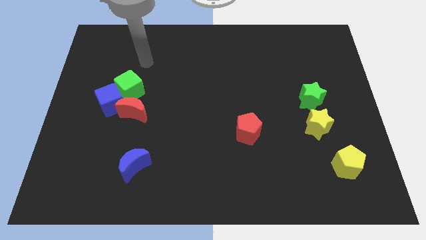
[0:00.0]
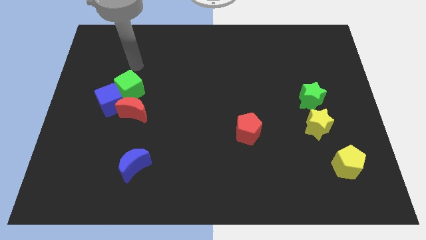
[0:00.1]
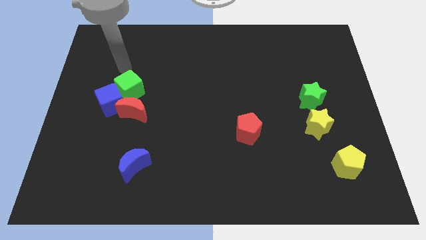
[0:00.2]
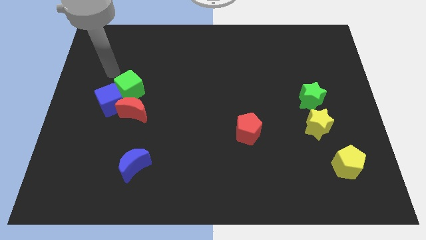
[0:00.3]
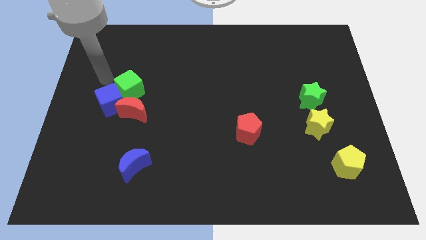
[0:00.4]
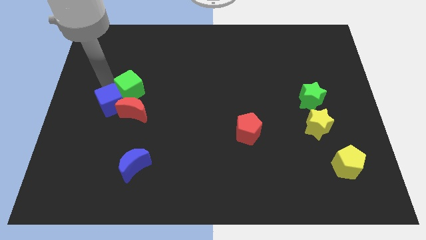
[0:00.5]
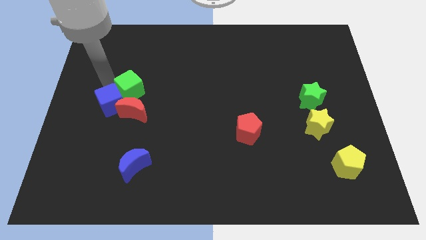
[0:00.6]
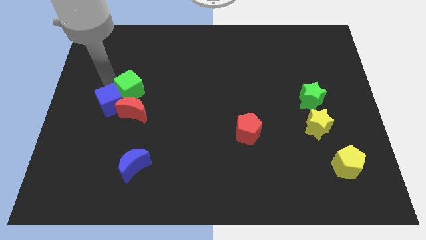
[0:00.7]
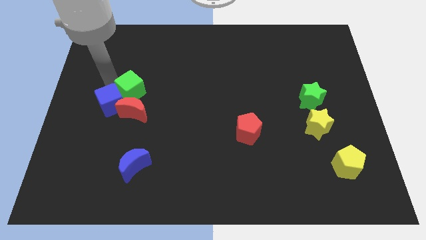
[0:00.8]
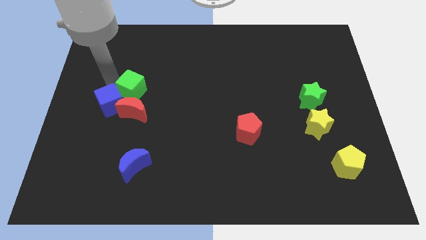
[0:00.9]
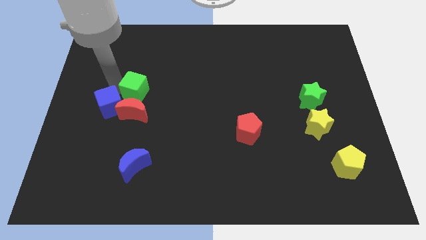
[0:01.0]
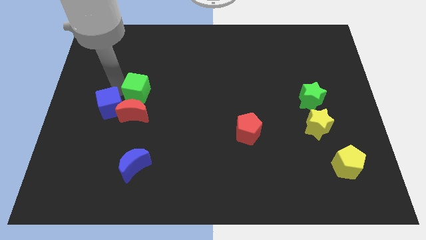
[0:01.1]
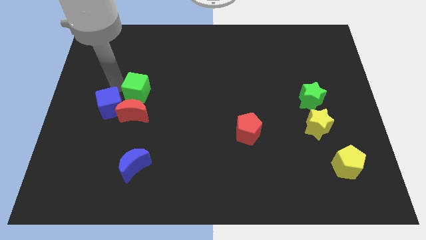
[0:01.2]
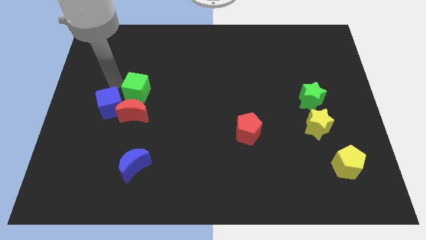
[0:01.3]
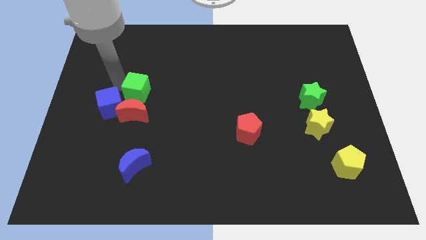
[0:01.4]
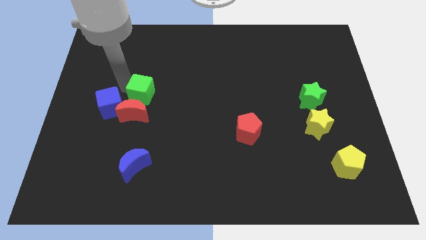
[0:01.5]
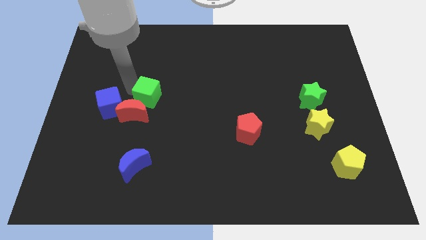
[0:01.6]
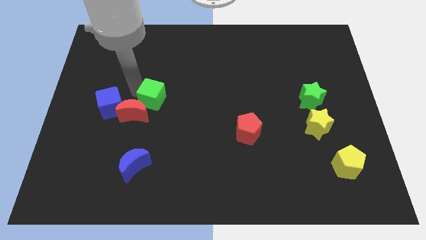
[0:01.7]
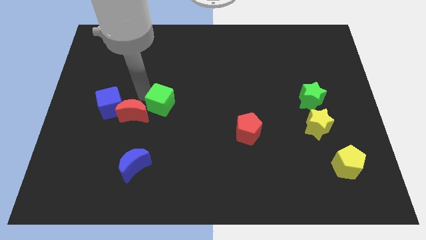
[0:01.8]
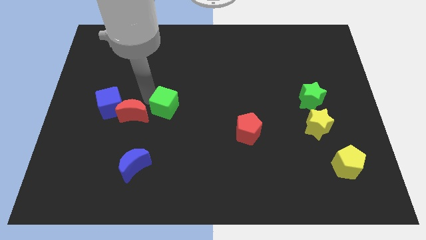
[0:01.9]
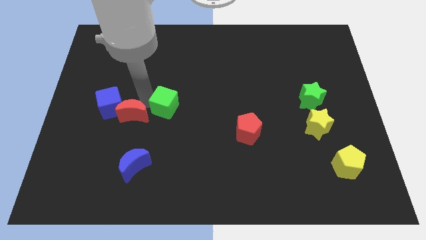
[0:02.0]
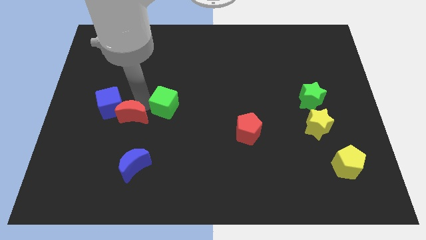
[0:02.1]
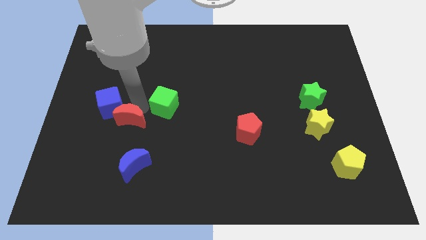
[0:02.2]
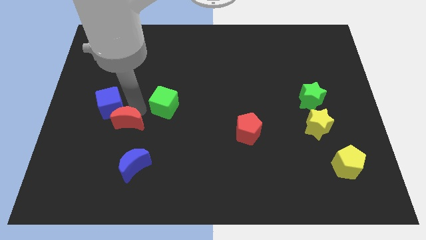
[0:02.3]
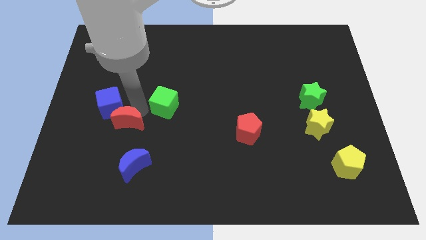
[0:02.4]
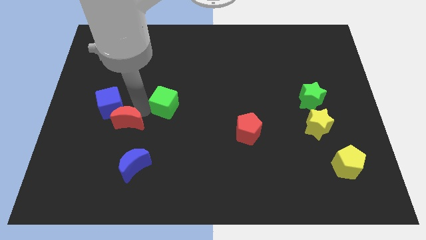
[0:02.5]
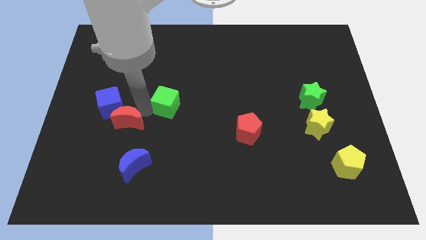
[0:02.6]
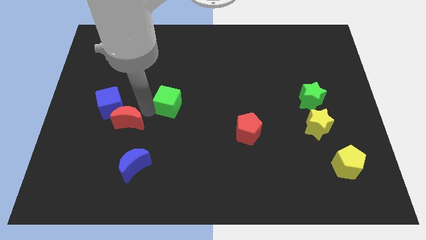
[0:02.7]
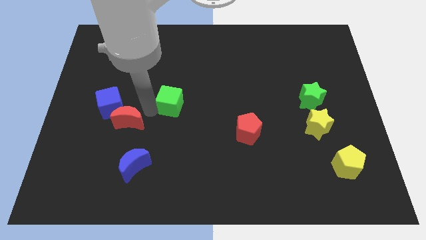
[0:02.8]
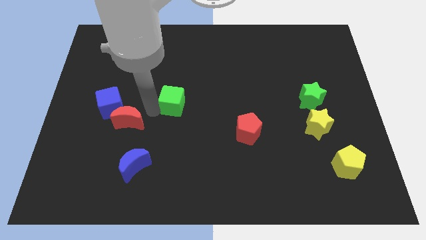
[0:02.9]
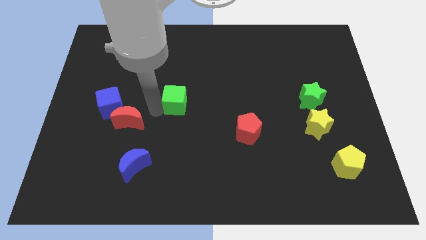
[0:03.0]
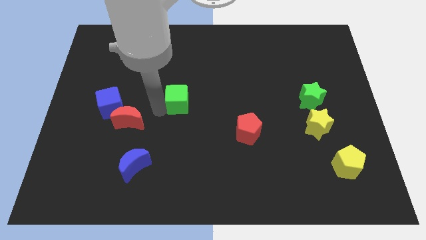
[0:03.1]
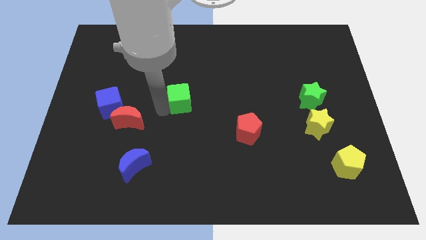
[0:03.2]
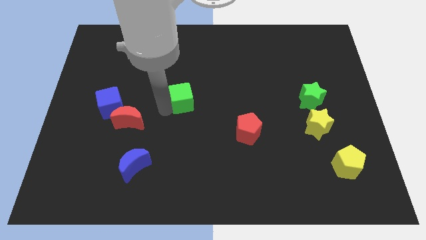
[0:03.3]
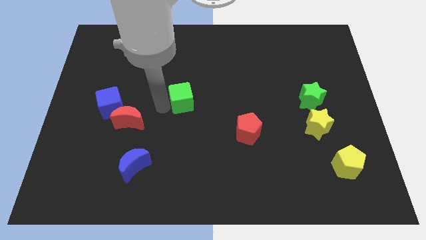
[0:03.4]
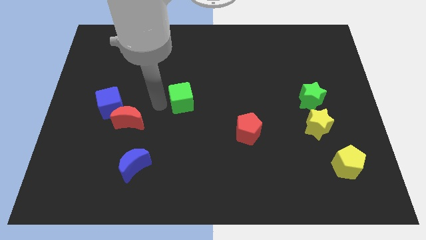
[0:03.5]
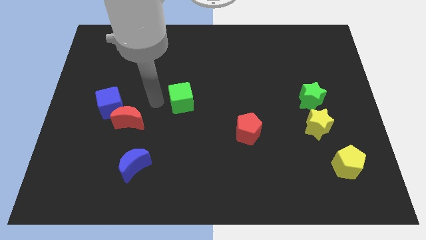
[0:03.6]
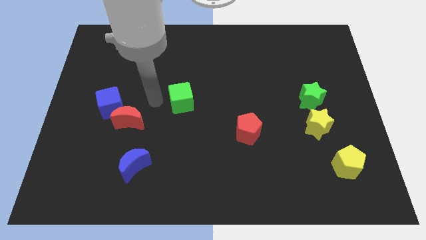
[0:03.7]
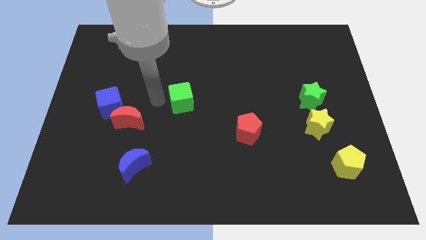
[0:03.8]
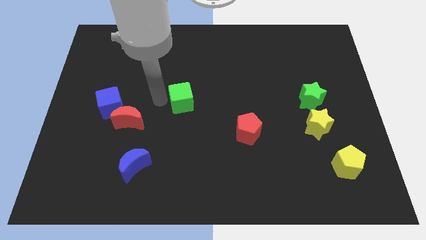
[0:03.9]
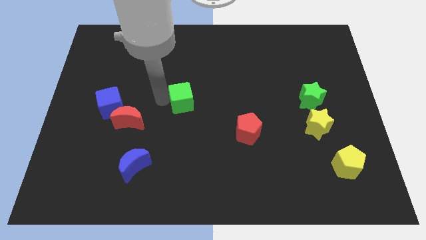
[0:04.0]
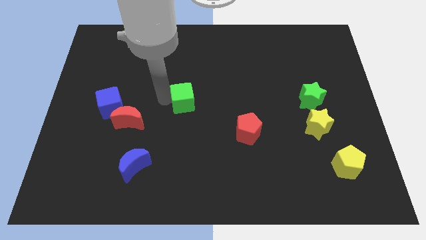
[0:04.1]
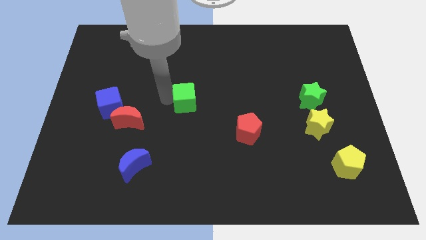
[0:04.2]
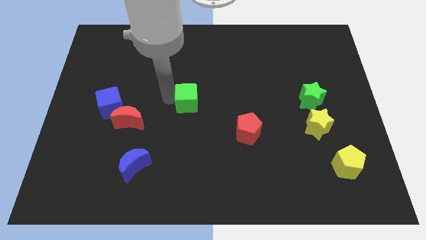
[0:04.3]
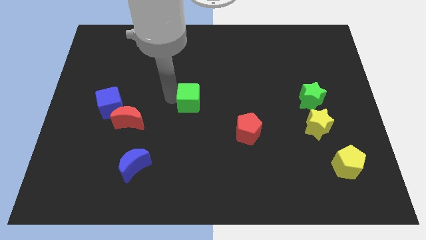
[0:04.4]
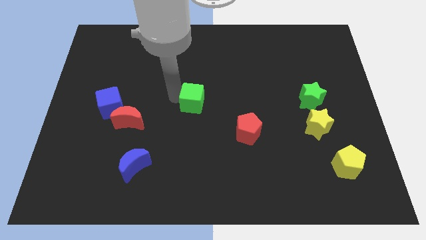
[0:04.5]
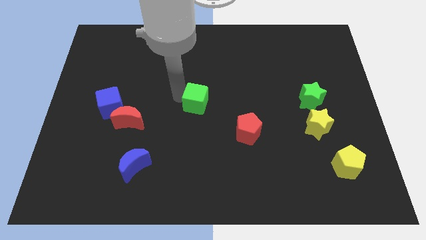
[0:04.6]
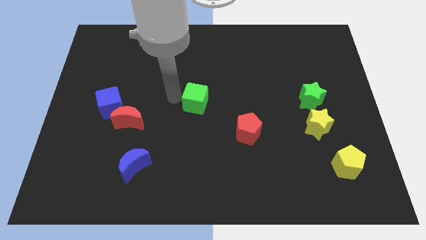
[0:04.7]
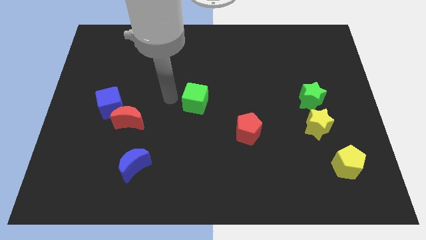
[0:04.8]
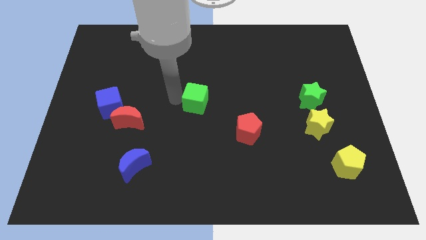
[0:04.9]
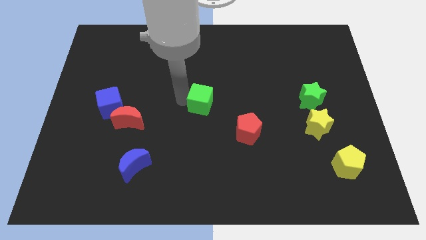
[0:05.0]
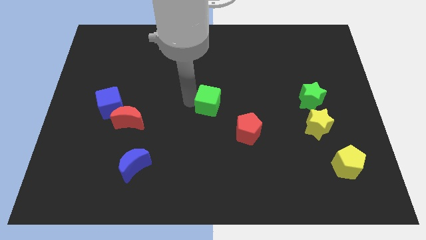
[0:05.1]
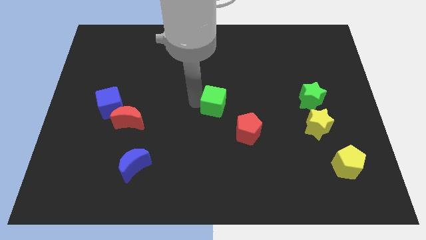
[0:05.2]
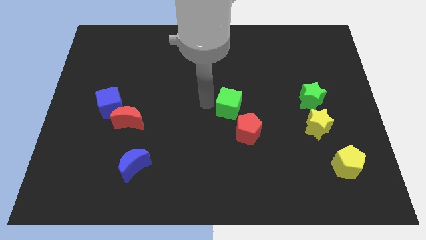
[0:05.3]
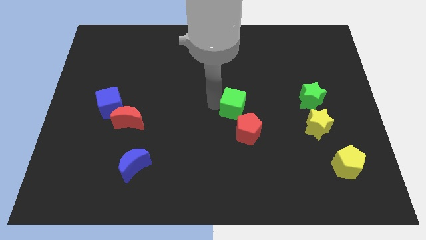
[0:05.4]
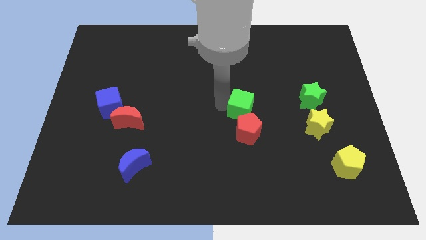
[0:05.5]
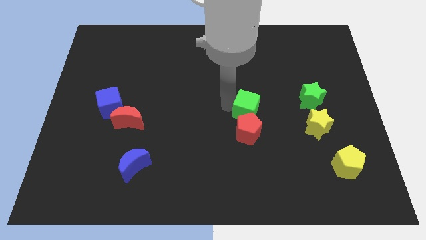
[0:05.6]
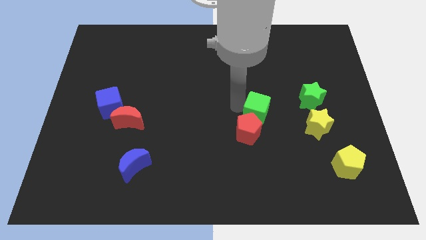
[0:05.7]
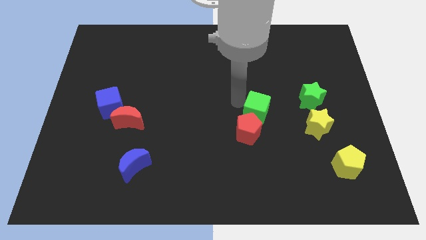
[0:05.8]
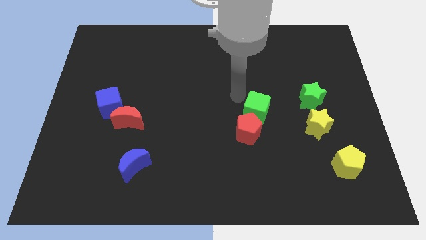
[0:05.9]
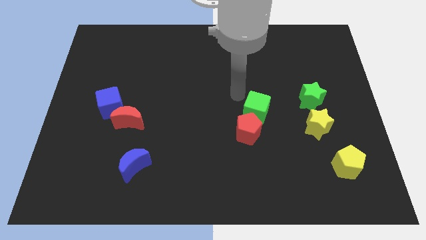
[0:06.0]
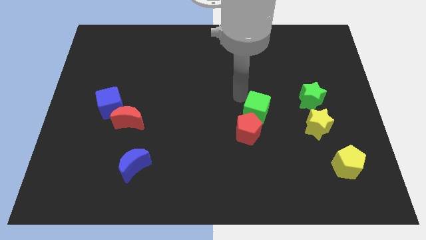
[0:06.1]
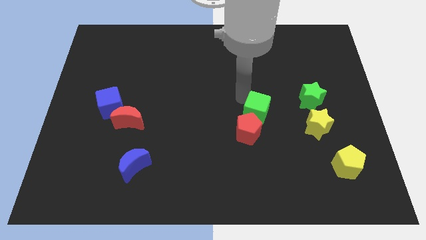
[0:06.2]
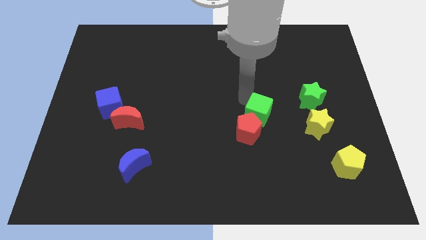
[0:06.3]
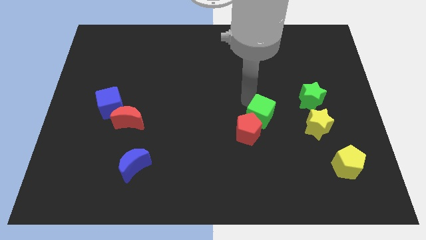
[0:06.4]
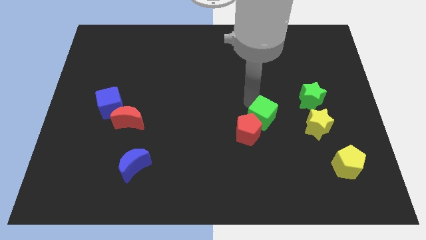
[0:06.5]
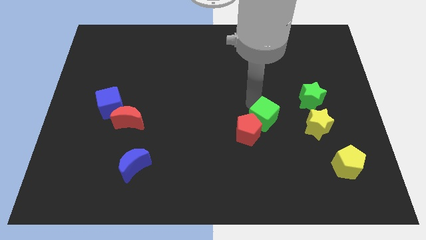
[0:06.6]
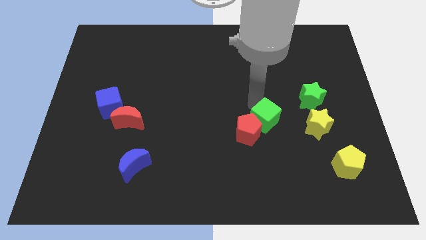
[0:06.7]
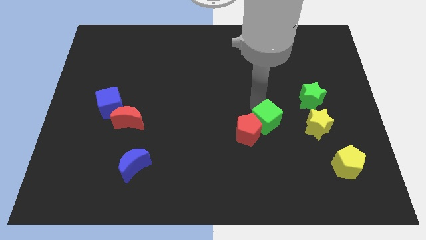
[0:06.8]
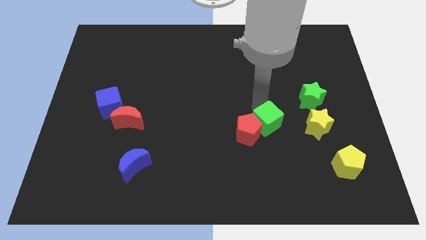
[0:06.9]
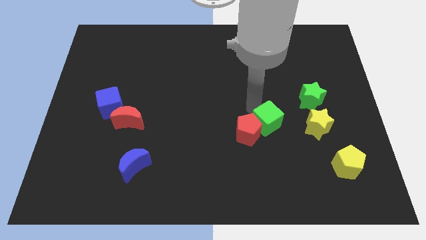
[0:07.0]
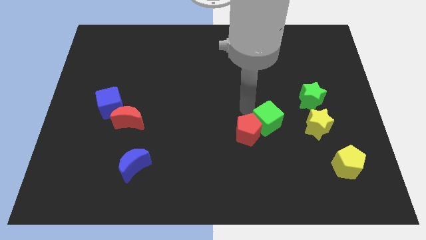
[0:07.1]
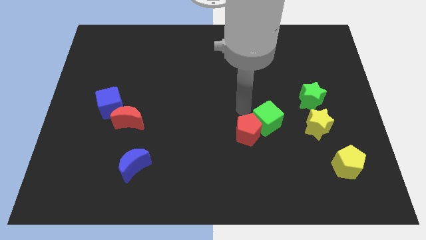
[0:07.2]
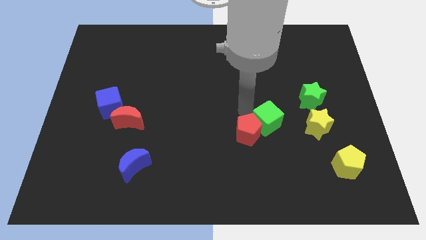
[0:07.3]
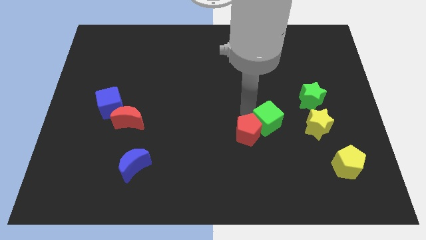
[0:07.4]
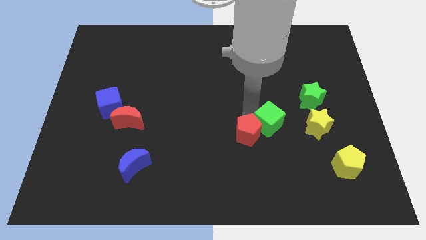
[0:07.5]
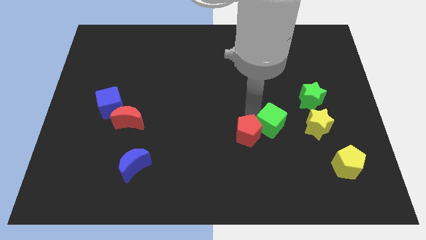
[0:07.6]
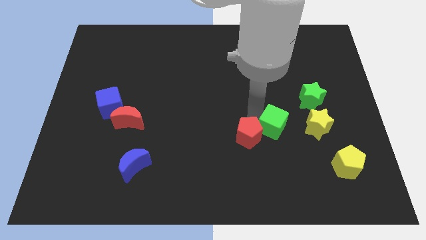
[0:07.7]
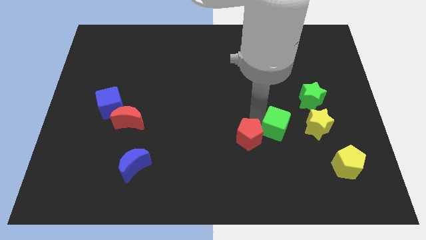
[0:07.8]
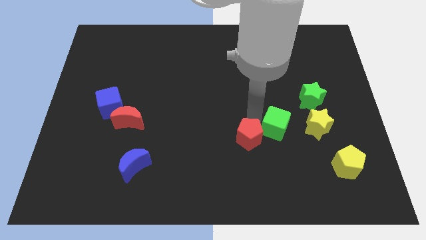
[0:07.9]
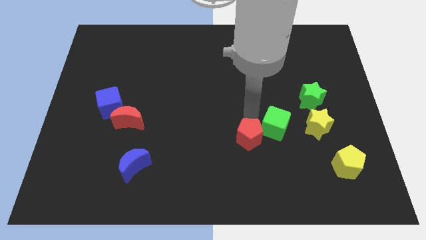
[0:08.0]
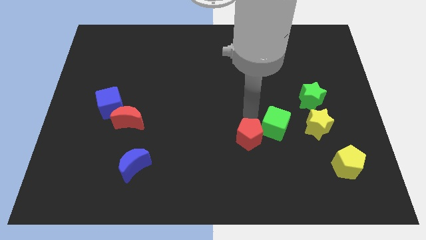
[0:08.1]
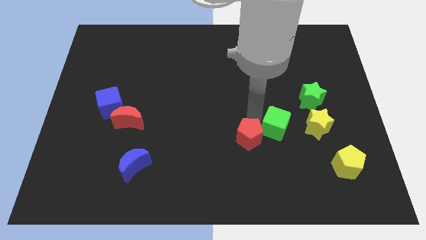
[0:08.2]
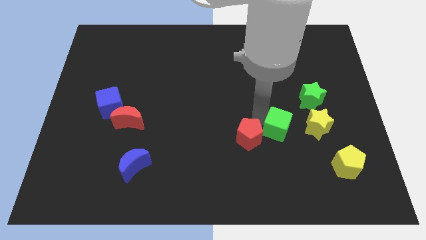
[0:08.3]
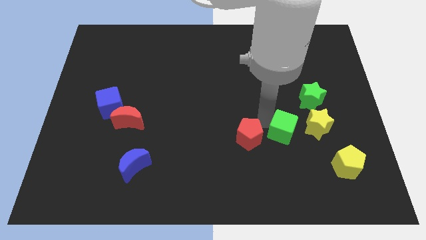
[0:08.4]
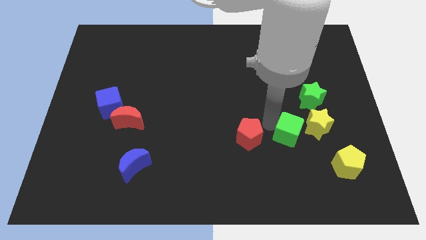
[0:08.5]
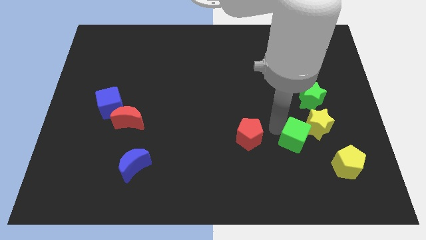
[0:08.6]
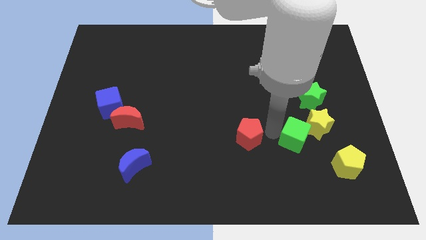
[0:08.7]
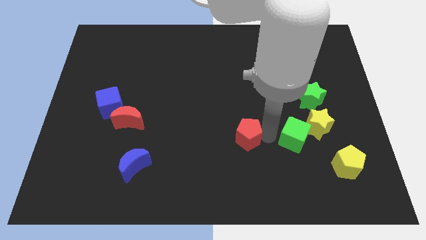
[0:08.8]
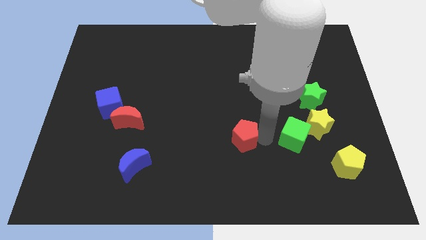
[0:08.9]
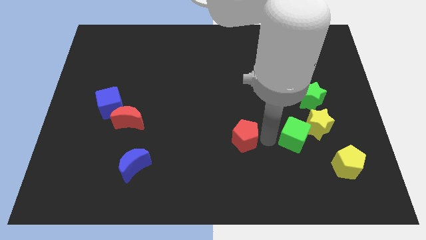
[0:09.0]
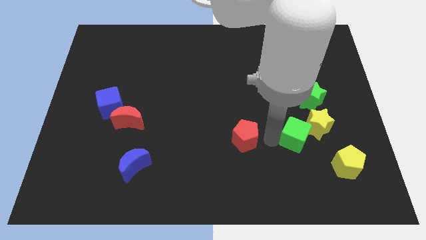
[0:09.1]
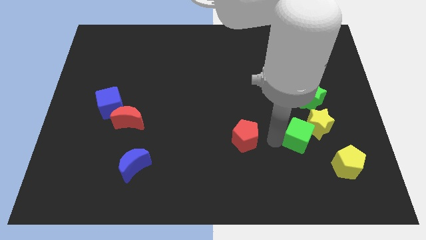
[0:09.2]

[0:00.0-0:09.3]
slide the green cube to the bottom side of the green star
